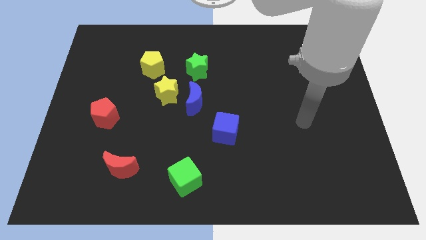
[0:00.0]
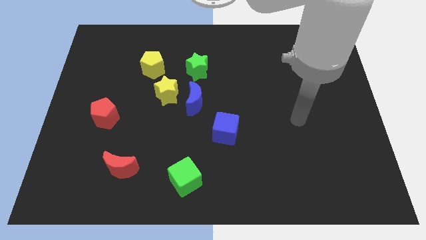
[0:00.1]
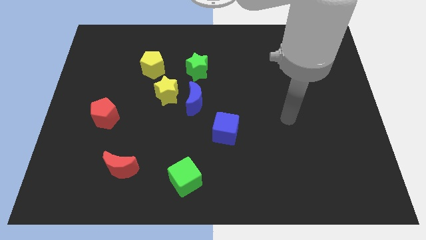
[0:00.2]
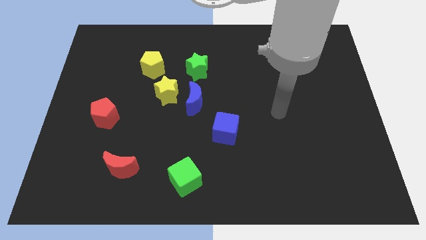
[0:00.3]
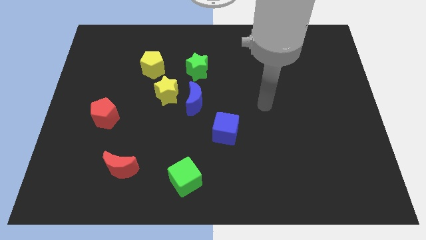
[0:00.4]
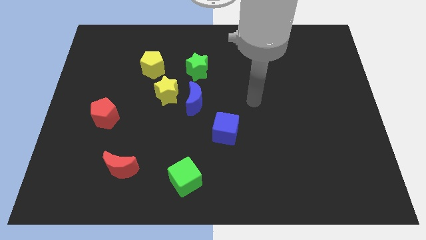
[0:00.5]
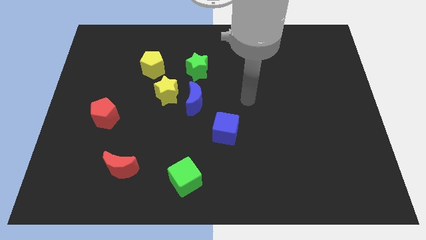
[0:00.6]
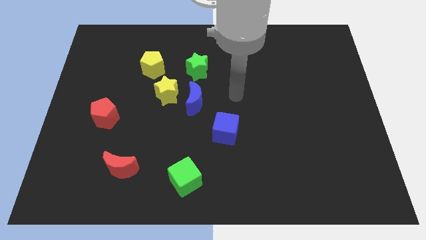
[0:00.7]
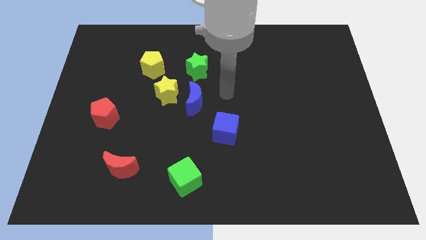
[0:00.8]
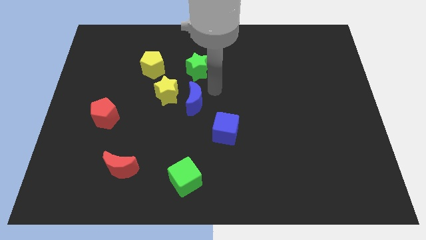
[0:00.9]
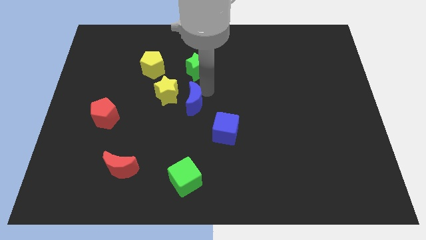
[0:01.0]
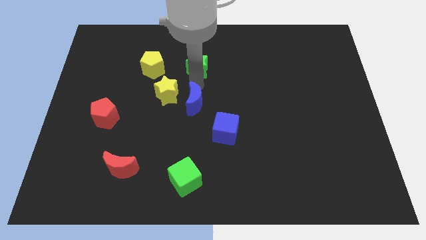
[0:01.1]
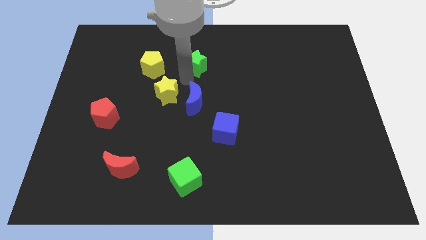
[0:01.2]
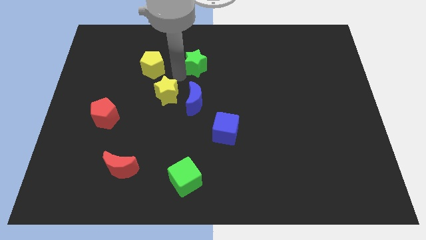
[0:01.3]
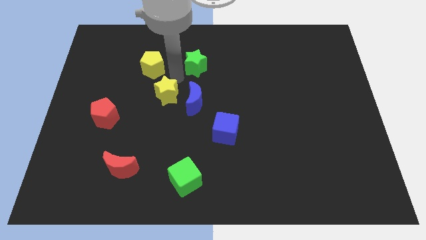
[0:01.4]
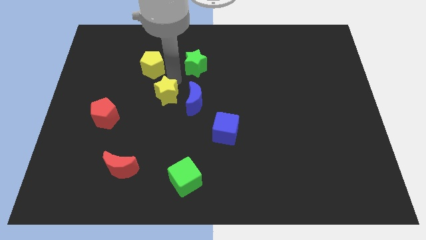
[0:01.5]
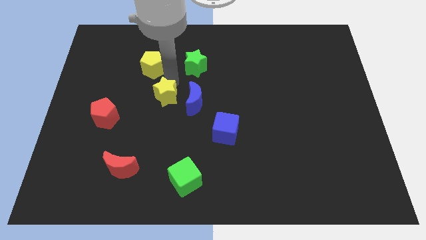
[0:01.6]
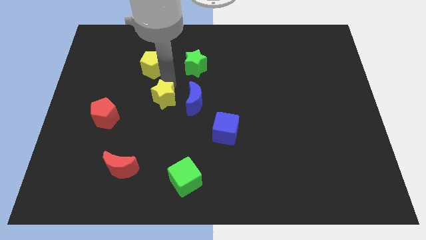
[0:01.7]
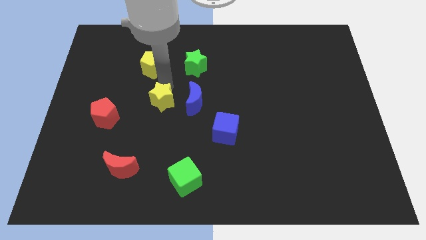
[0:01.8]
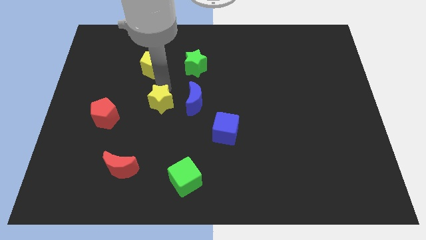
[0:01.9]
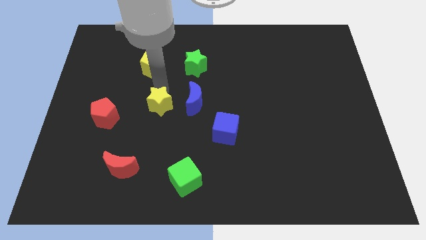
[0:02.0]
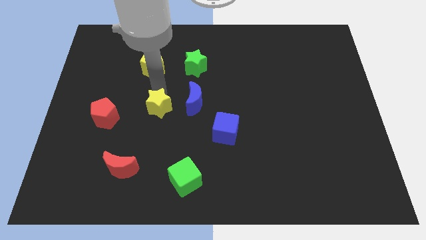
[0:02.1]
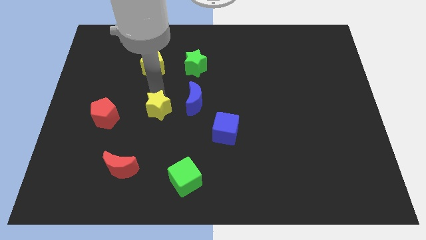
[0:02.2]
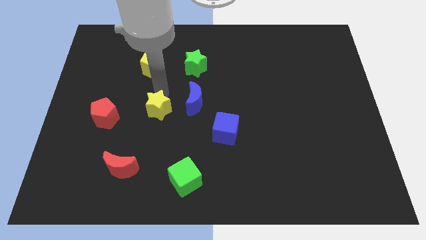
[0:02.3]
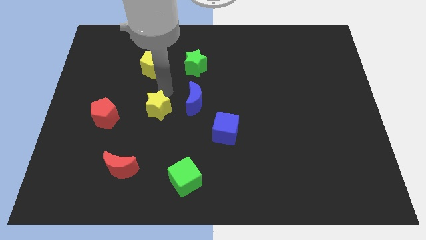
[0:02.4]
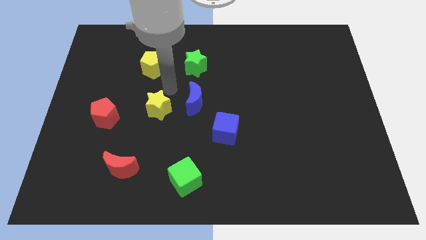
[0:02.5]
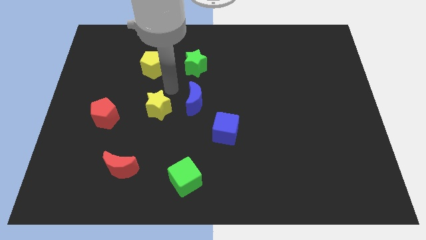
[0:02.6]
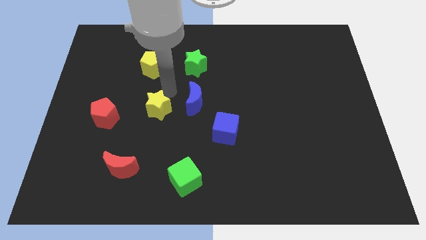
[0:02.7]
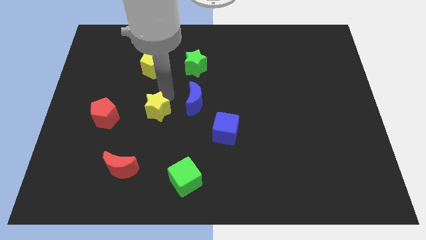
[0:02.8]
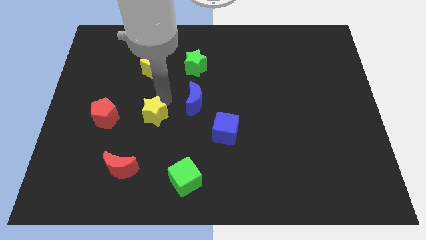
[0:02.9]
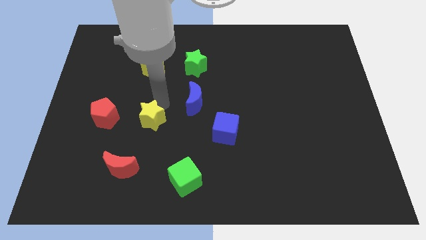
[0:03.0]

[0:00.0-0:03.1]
separate the yellow star from the blue moon and yellow pentagon

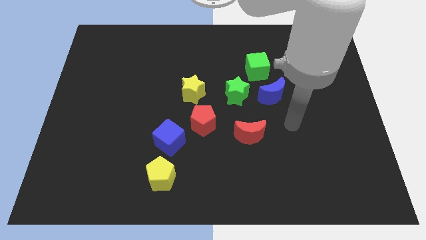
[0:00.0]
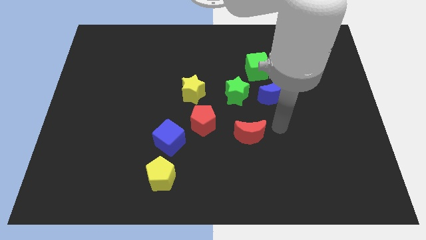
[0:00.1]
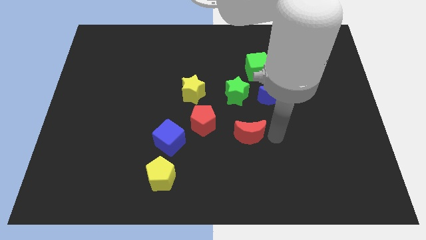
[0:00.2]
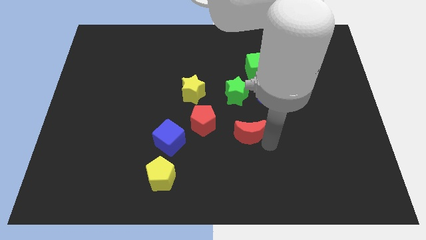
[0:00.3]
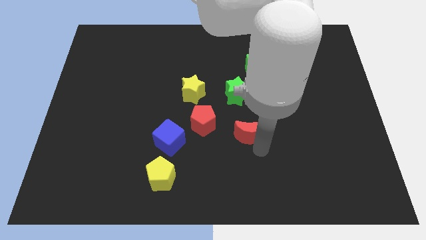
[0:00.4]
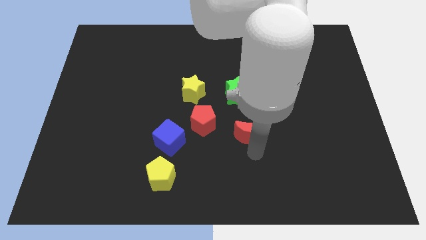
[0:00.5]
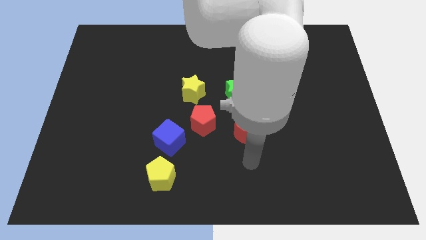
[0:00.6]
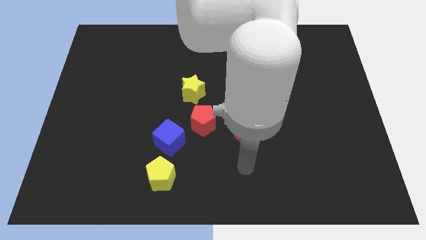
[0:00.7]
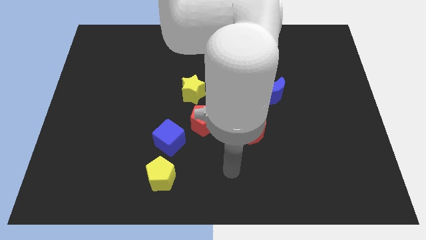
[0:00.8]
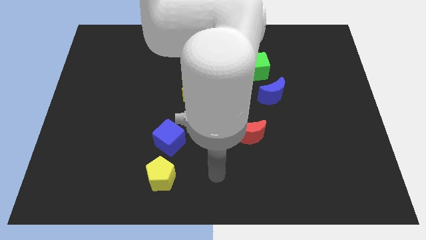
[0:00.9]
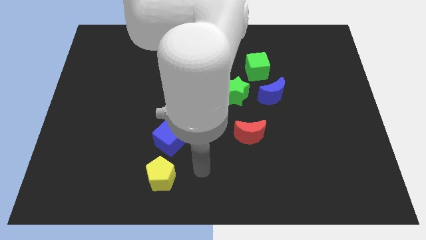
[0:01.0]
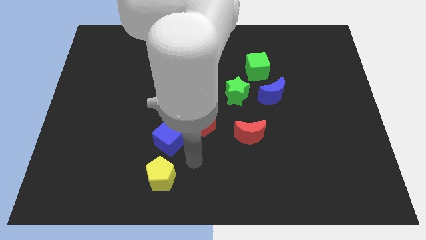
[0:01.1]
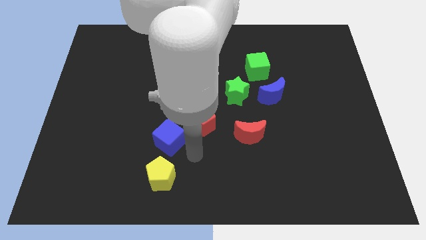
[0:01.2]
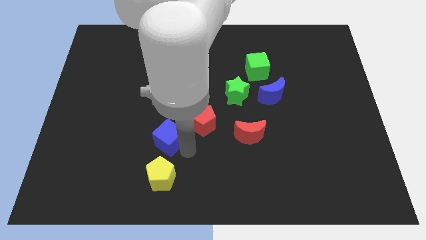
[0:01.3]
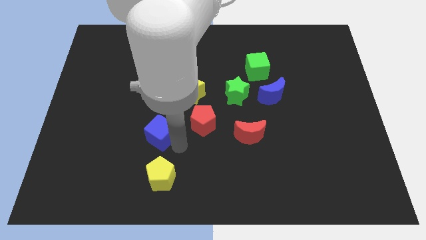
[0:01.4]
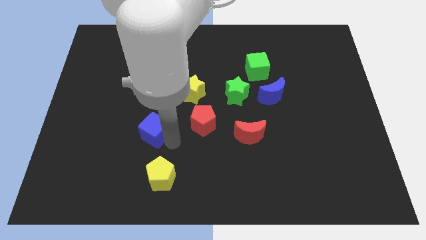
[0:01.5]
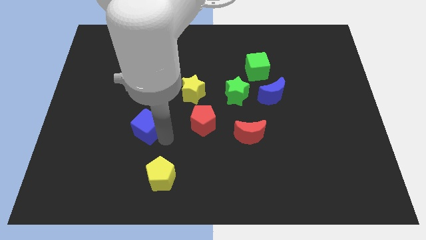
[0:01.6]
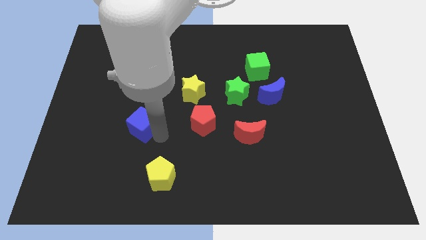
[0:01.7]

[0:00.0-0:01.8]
separate the blue cube from the red pentagon and yellow pentagon

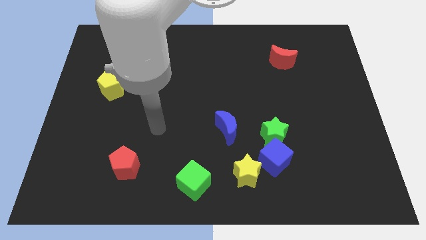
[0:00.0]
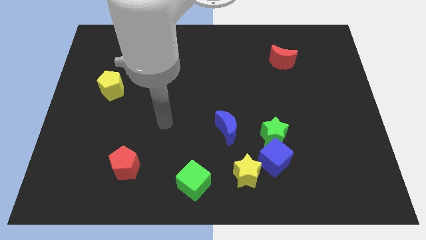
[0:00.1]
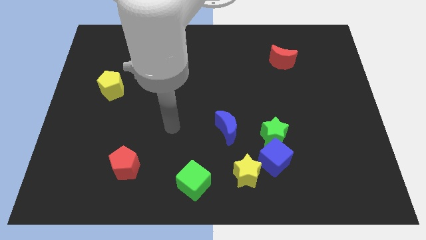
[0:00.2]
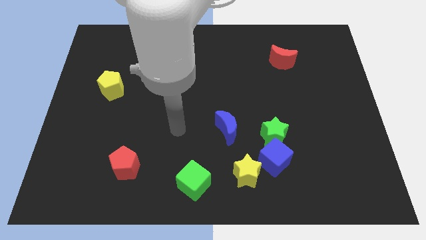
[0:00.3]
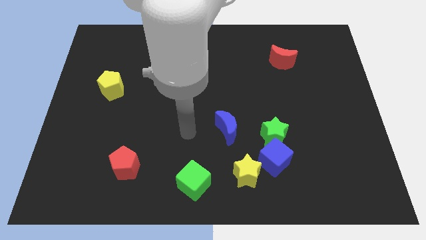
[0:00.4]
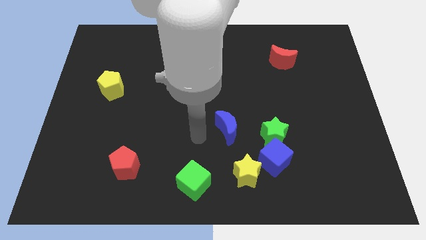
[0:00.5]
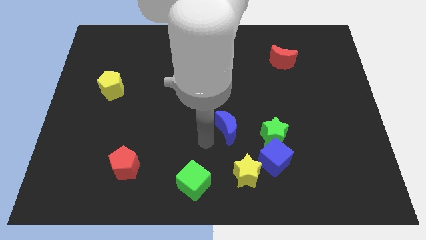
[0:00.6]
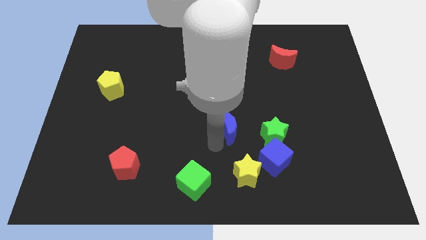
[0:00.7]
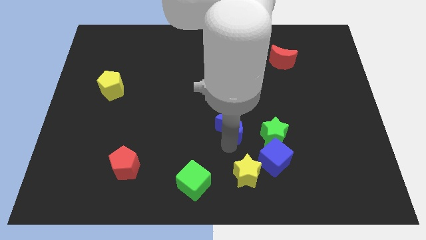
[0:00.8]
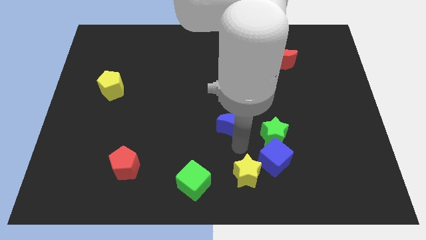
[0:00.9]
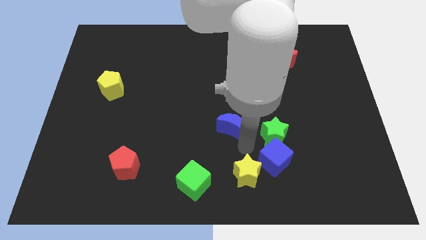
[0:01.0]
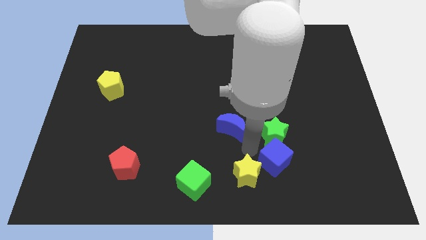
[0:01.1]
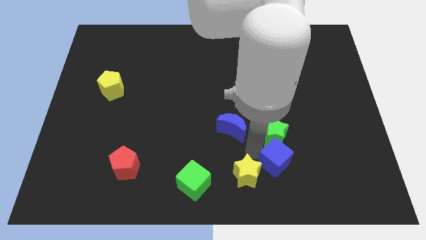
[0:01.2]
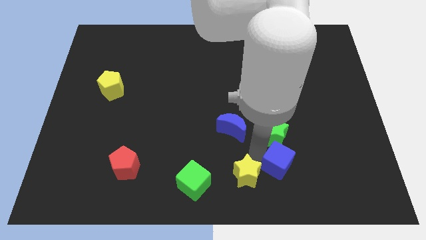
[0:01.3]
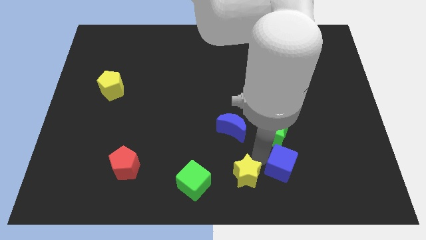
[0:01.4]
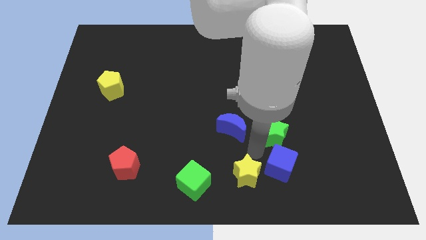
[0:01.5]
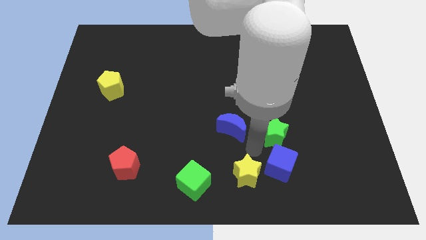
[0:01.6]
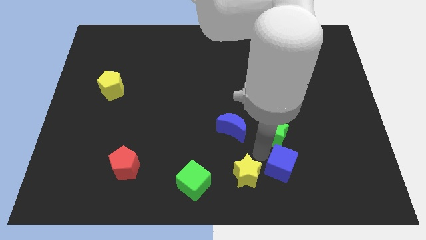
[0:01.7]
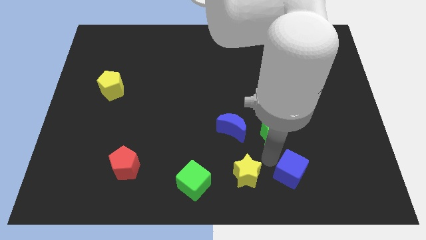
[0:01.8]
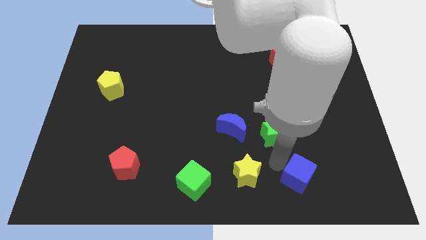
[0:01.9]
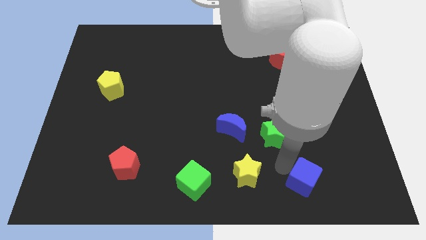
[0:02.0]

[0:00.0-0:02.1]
separate the blue cube from the green star and yellow star

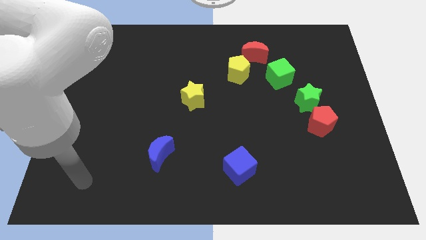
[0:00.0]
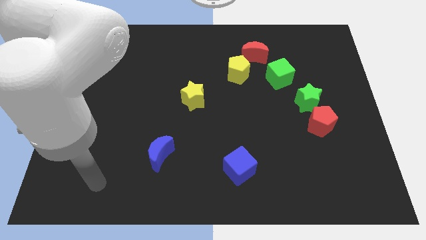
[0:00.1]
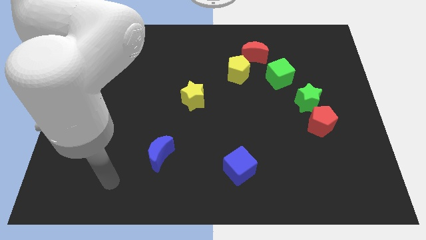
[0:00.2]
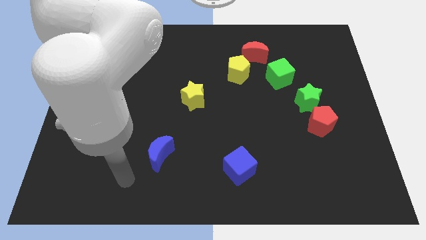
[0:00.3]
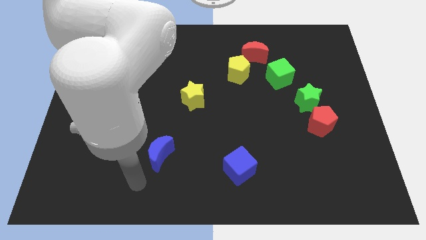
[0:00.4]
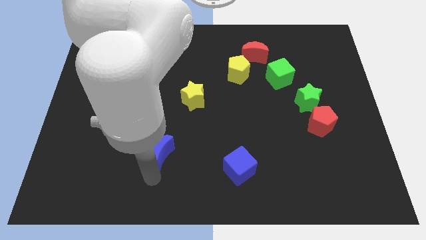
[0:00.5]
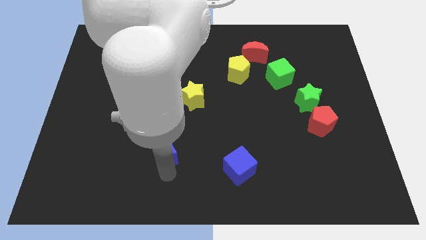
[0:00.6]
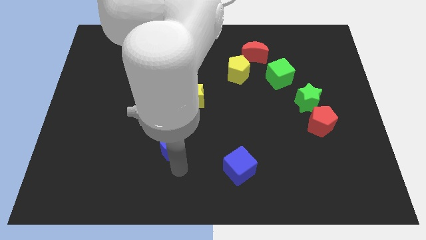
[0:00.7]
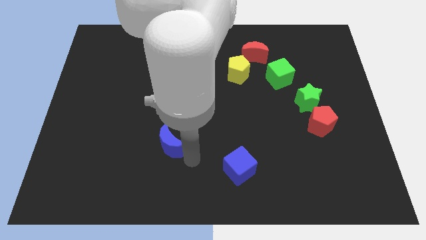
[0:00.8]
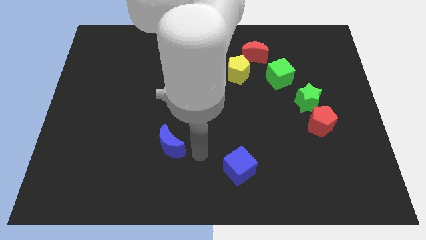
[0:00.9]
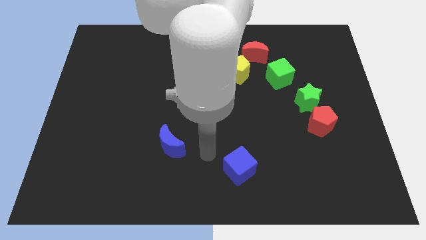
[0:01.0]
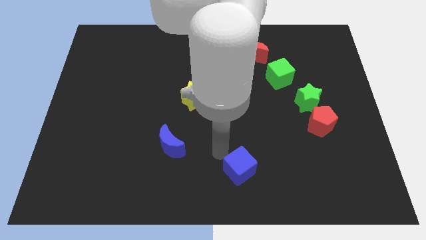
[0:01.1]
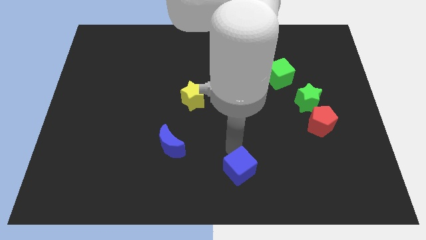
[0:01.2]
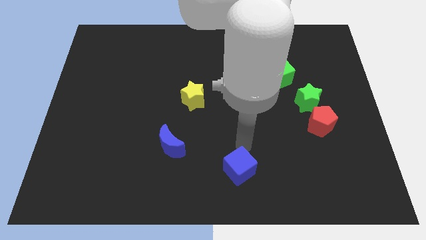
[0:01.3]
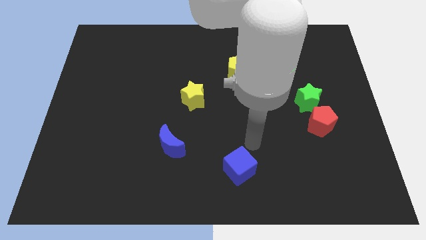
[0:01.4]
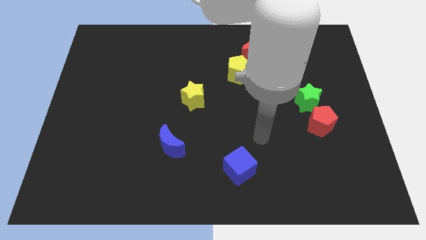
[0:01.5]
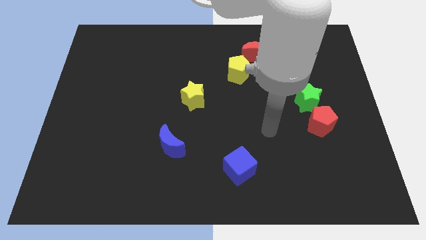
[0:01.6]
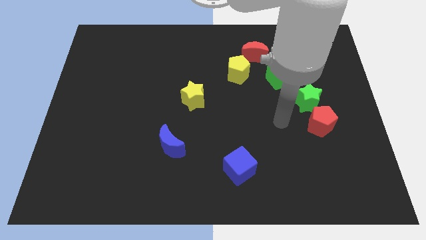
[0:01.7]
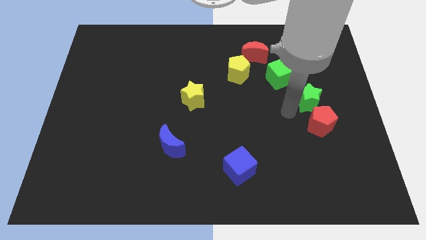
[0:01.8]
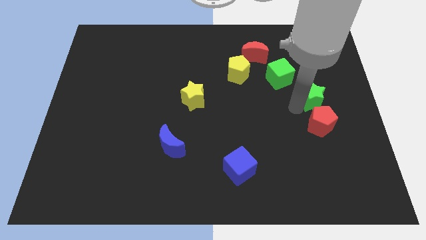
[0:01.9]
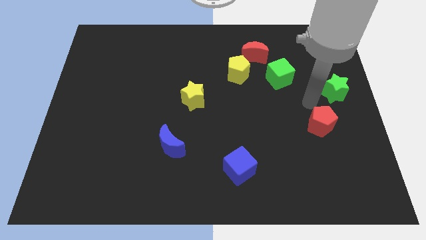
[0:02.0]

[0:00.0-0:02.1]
move the red pentagon away from the green star

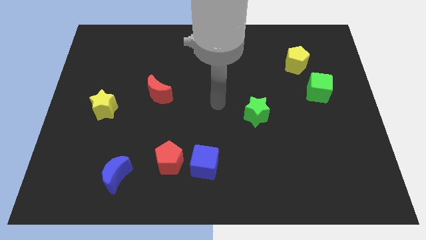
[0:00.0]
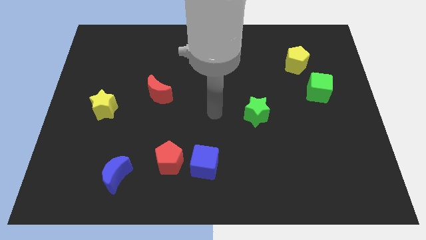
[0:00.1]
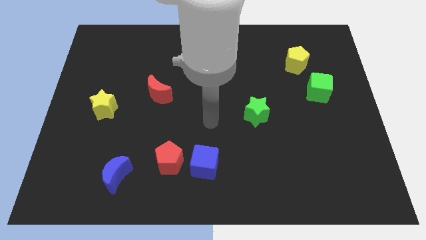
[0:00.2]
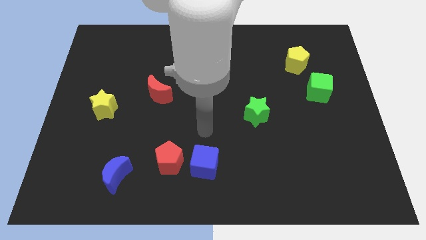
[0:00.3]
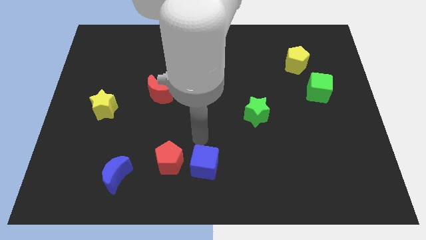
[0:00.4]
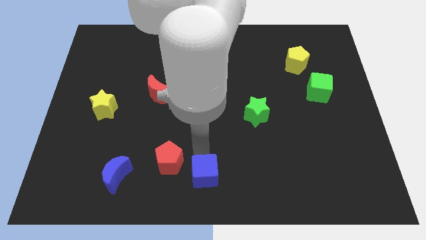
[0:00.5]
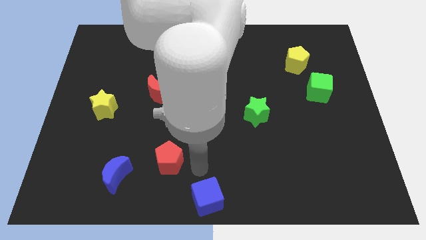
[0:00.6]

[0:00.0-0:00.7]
pull the red pentagon apart from the blue cube
